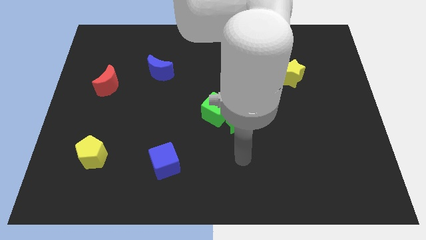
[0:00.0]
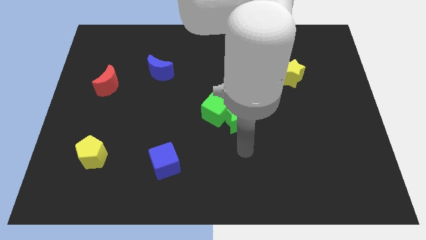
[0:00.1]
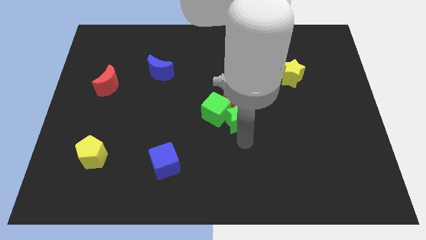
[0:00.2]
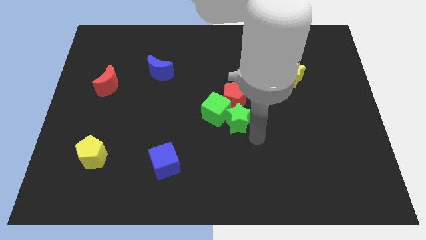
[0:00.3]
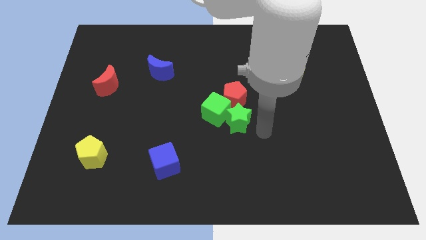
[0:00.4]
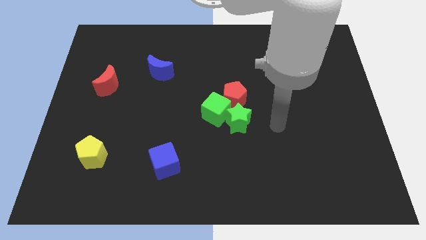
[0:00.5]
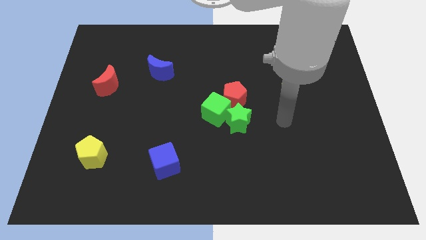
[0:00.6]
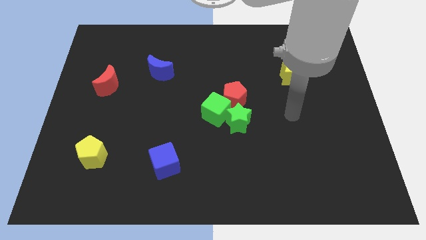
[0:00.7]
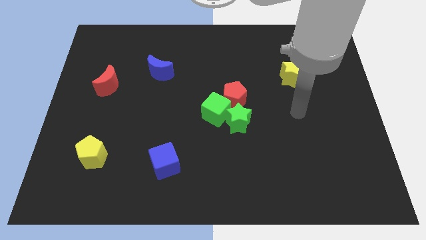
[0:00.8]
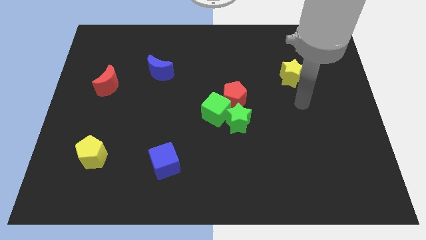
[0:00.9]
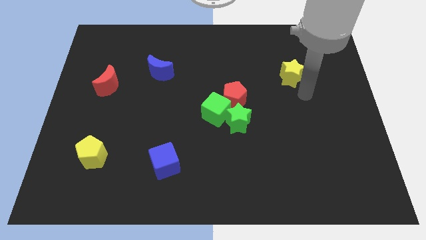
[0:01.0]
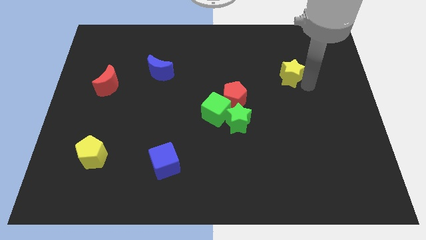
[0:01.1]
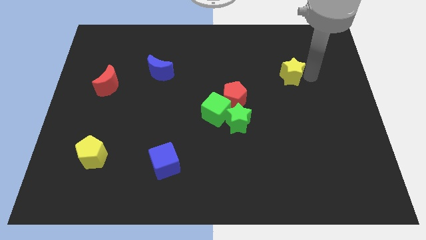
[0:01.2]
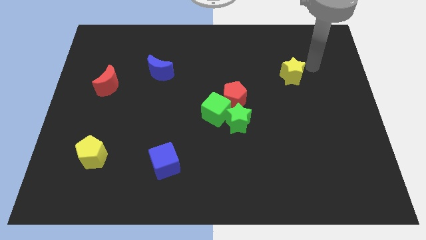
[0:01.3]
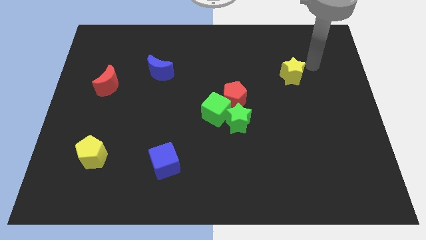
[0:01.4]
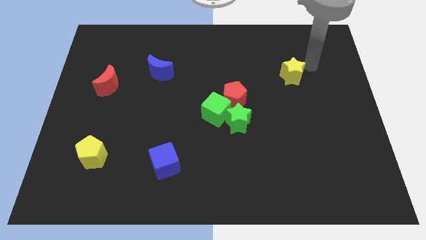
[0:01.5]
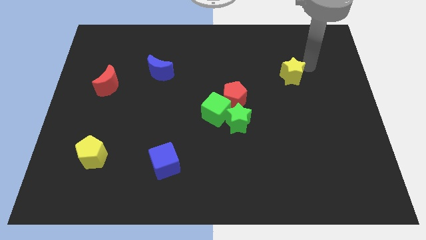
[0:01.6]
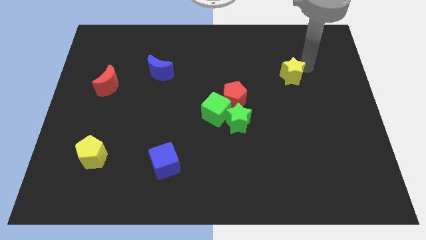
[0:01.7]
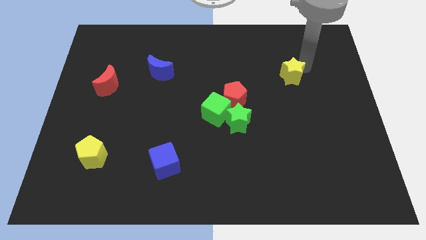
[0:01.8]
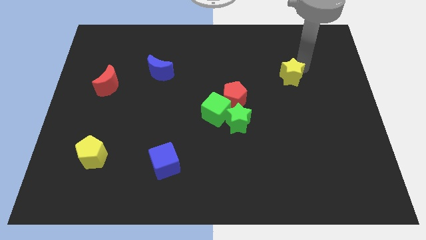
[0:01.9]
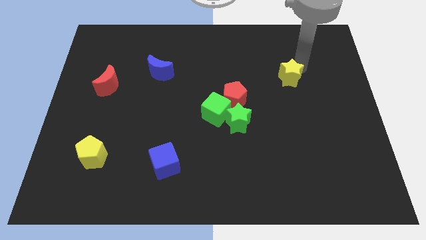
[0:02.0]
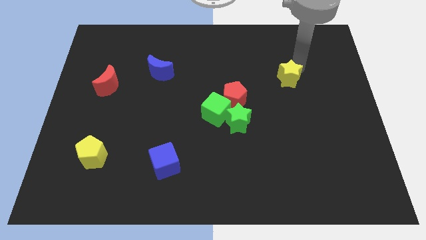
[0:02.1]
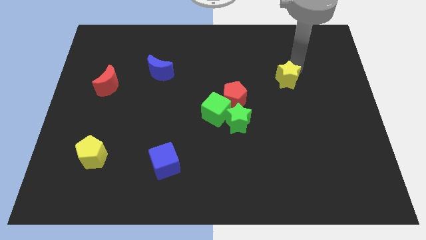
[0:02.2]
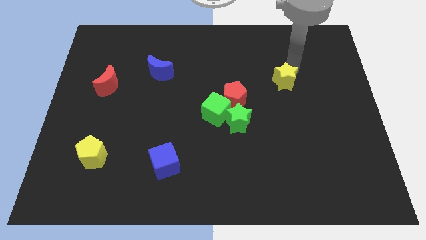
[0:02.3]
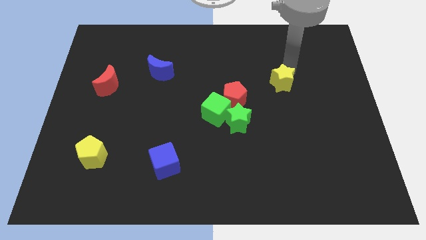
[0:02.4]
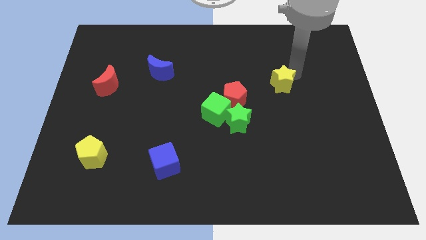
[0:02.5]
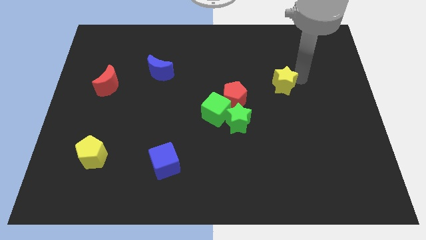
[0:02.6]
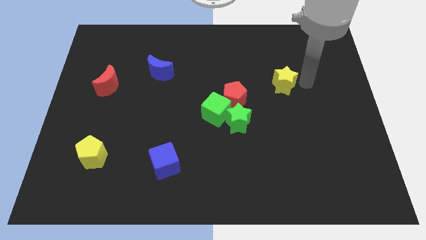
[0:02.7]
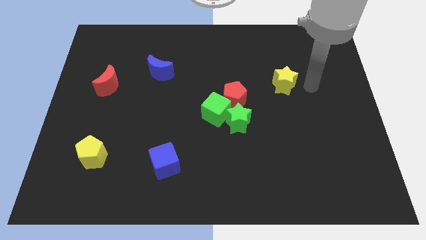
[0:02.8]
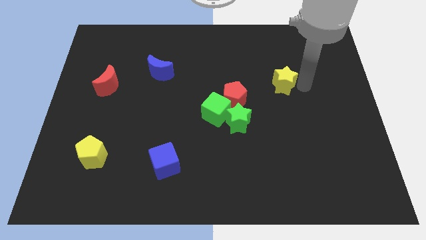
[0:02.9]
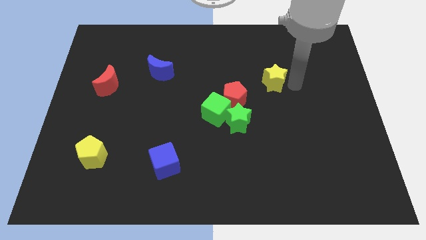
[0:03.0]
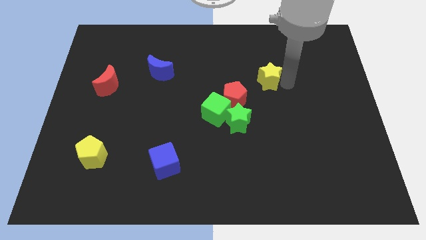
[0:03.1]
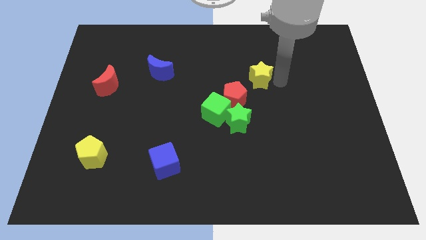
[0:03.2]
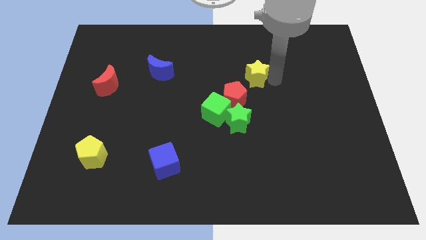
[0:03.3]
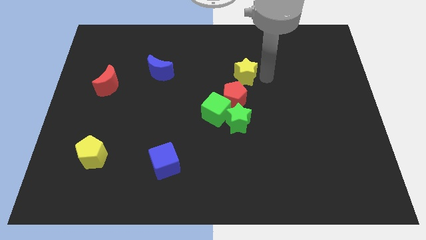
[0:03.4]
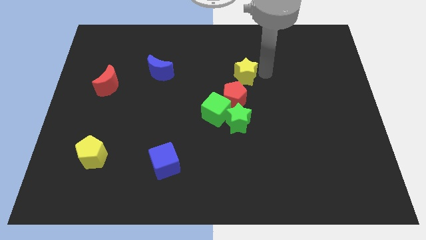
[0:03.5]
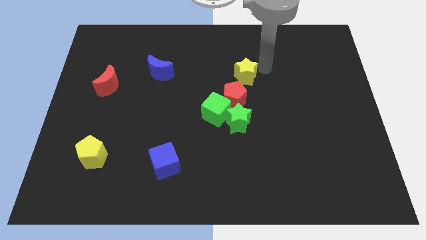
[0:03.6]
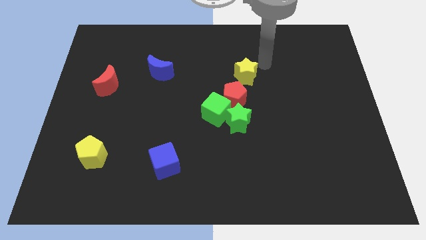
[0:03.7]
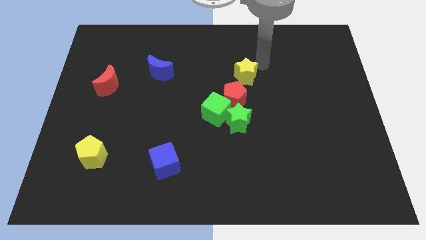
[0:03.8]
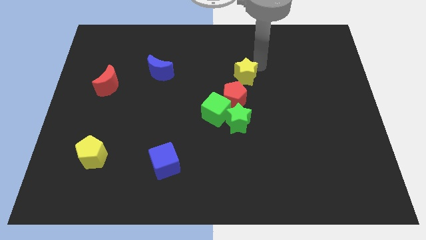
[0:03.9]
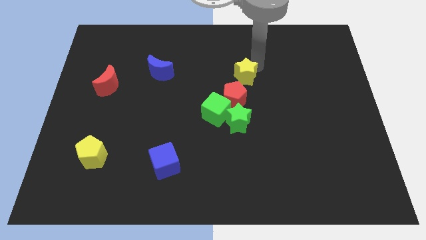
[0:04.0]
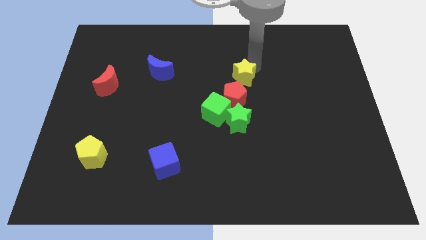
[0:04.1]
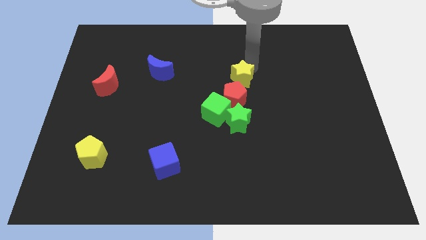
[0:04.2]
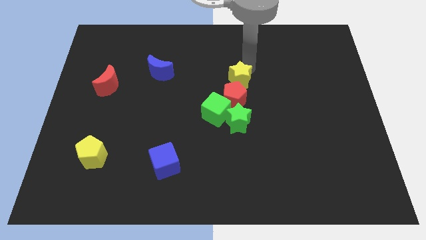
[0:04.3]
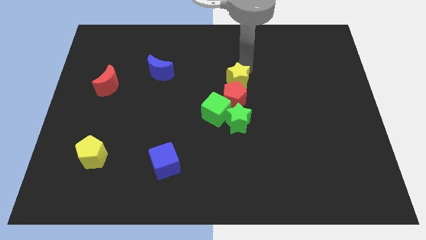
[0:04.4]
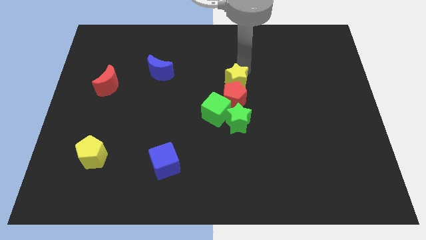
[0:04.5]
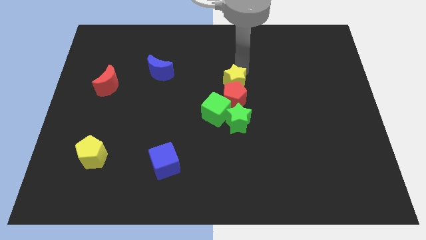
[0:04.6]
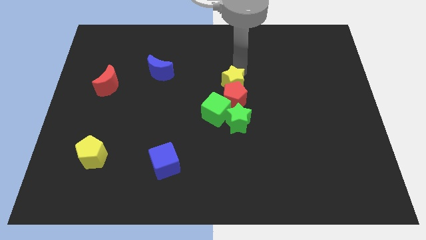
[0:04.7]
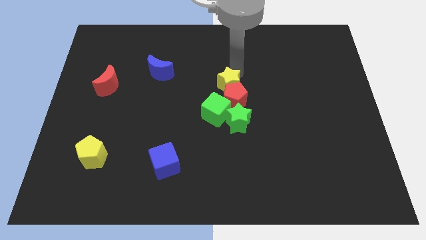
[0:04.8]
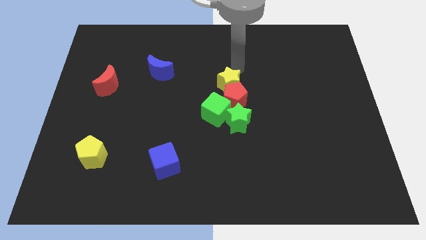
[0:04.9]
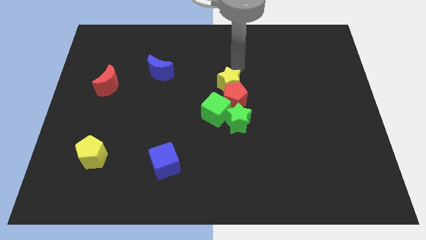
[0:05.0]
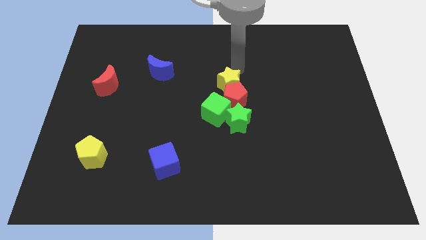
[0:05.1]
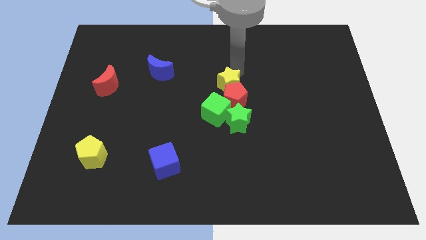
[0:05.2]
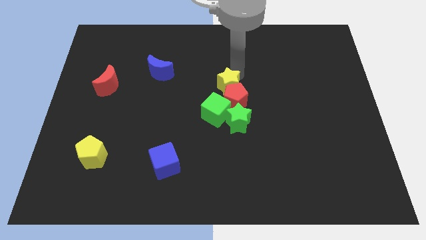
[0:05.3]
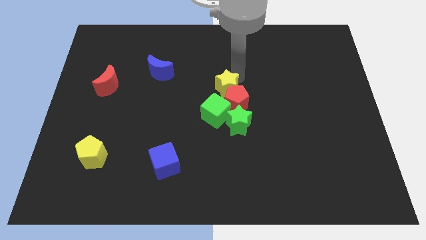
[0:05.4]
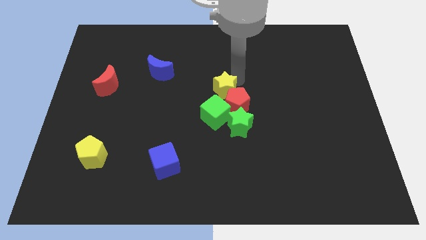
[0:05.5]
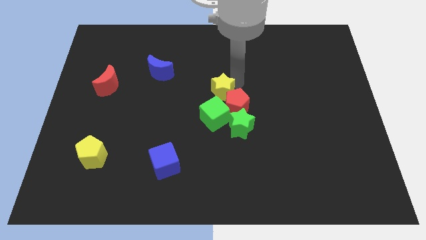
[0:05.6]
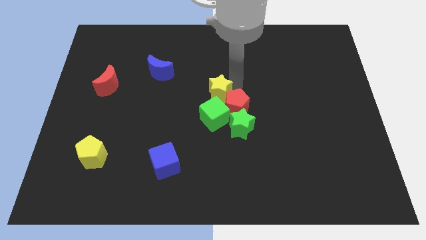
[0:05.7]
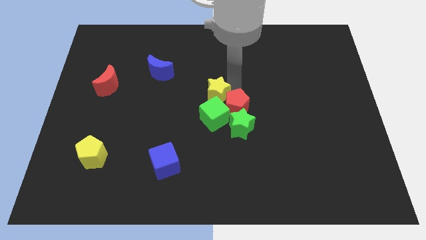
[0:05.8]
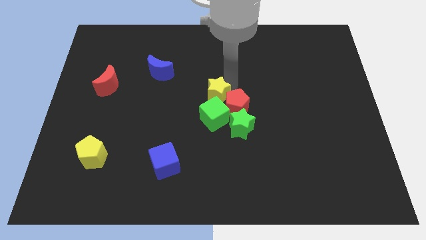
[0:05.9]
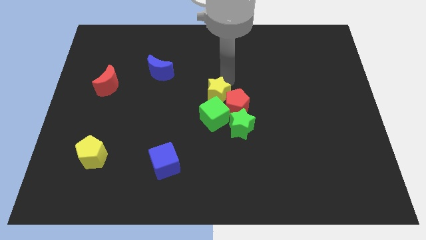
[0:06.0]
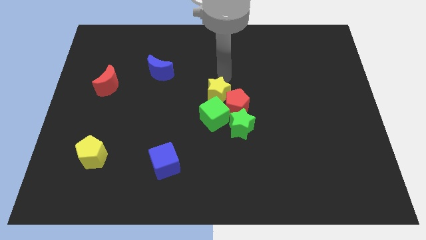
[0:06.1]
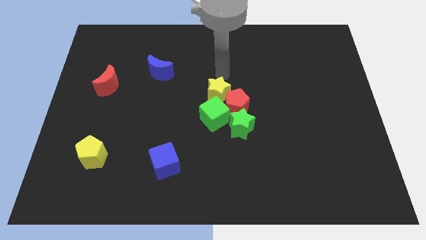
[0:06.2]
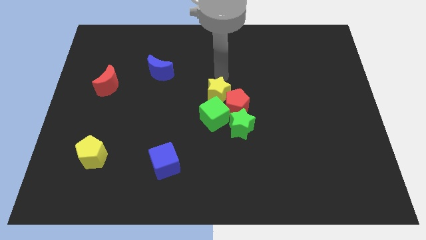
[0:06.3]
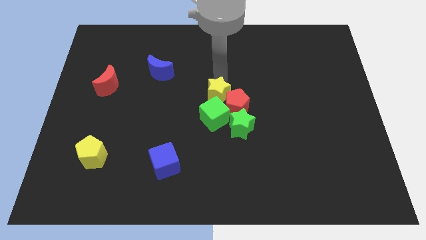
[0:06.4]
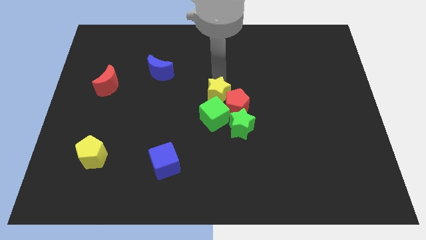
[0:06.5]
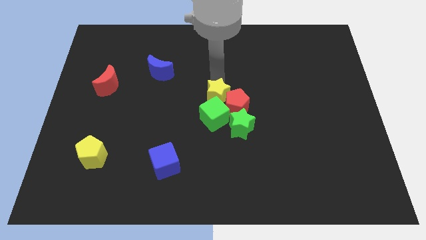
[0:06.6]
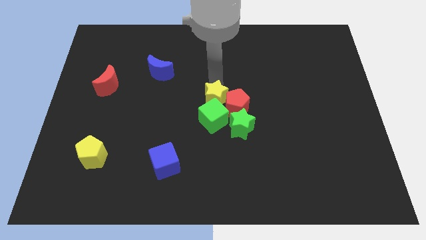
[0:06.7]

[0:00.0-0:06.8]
put the yellow star next to the green cube

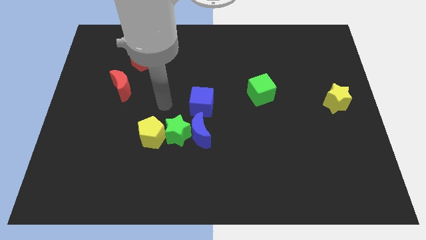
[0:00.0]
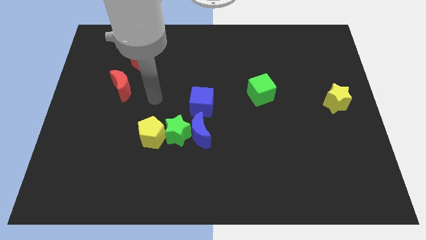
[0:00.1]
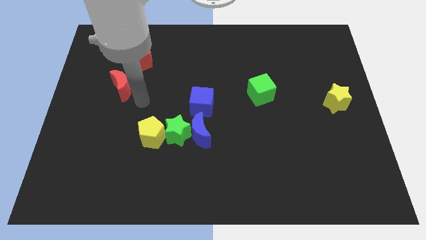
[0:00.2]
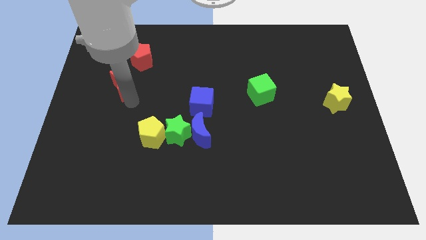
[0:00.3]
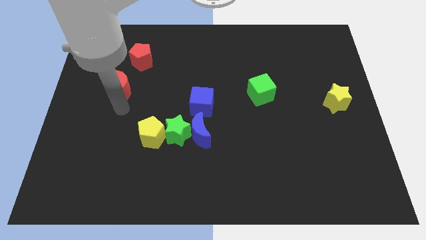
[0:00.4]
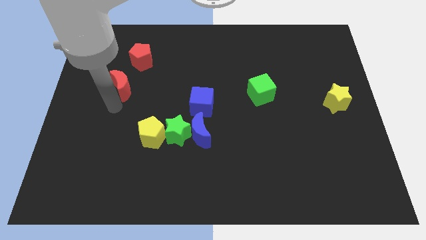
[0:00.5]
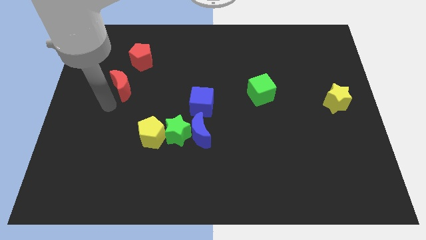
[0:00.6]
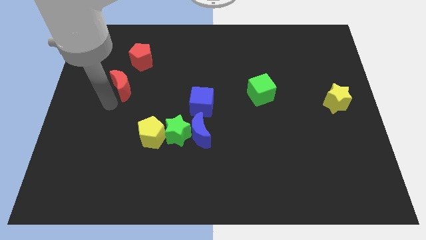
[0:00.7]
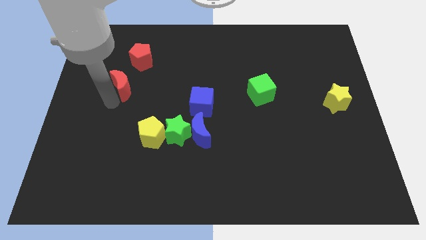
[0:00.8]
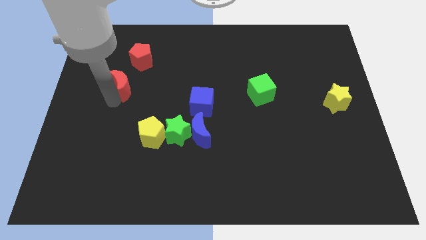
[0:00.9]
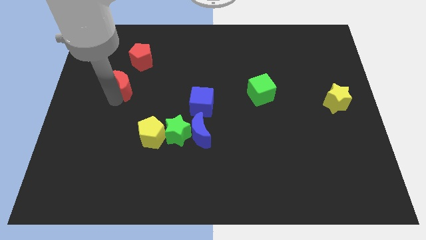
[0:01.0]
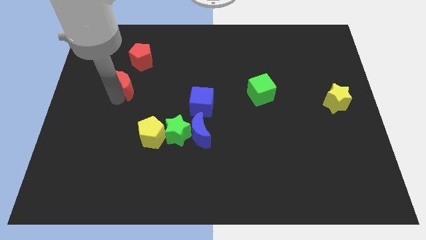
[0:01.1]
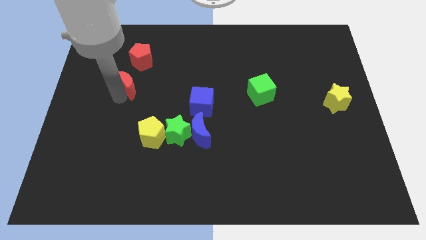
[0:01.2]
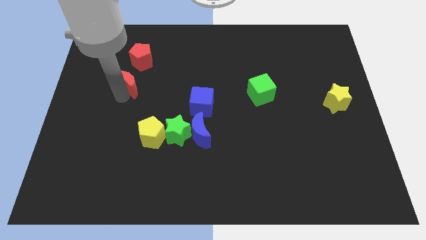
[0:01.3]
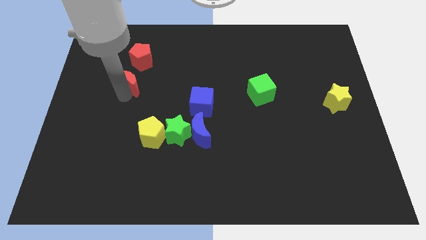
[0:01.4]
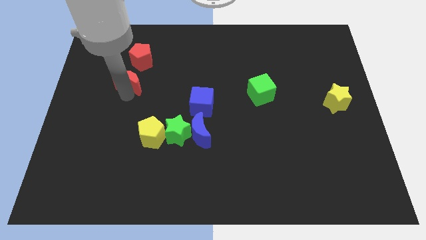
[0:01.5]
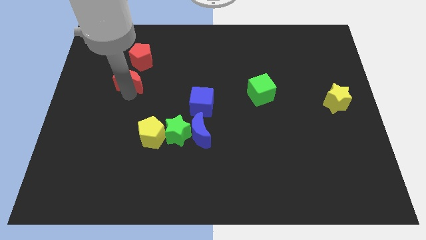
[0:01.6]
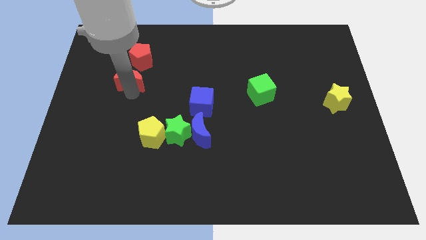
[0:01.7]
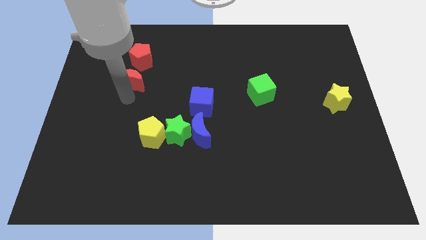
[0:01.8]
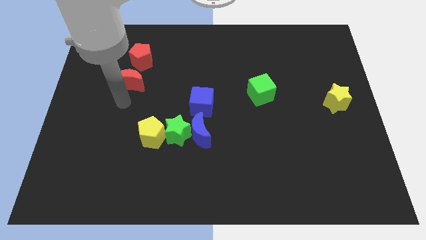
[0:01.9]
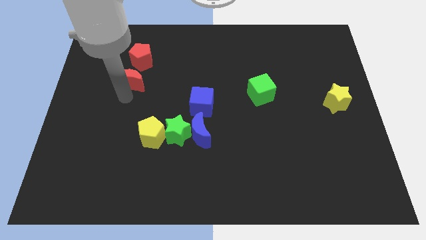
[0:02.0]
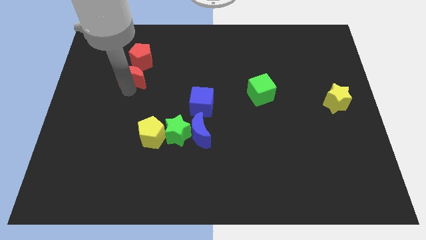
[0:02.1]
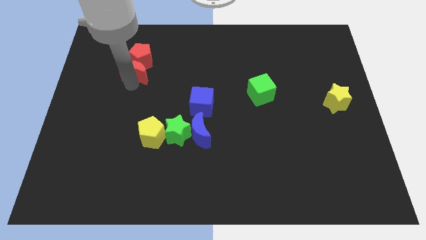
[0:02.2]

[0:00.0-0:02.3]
slide the red moon close to the red pentagon
